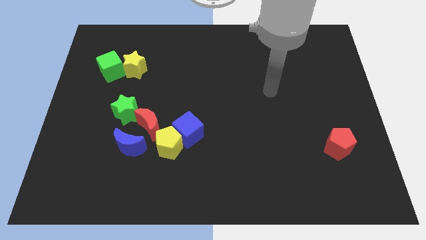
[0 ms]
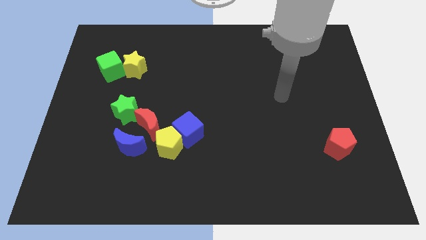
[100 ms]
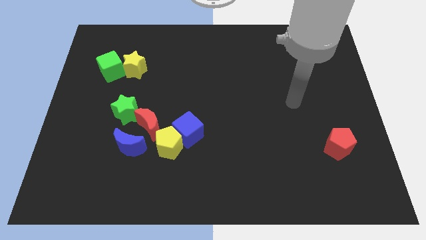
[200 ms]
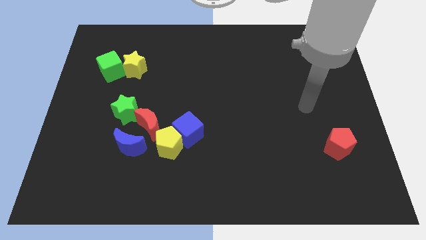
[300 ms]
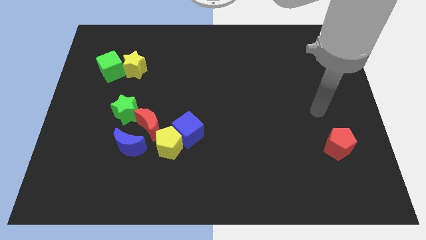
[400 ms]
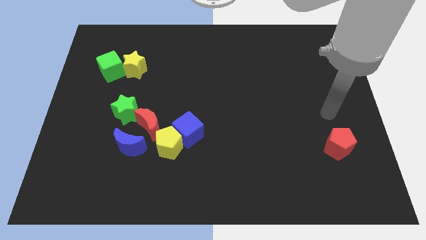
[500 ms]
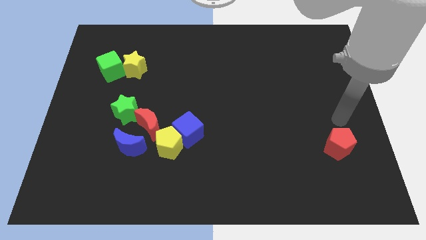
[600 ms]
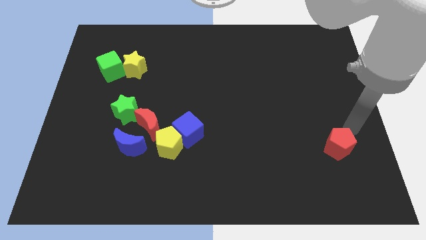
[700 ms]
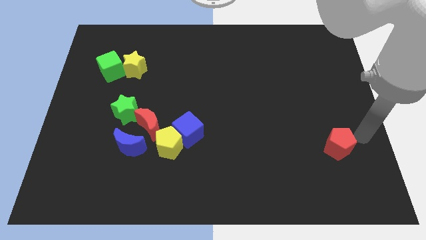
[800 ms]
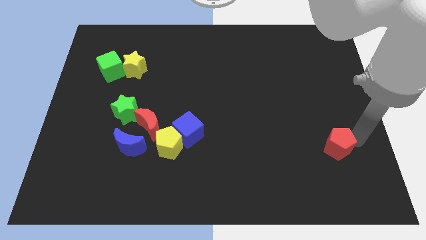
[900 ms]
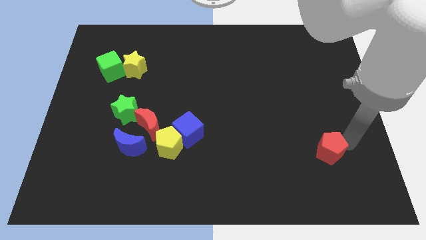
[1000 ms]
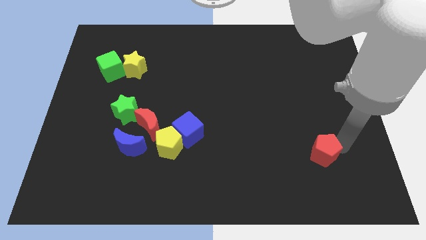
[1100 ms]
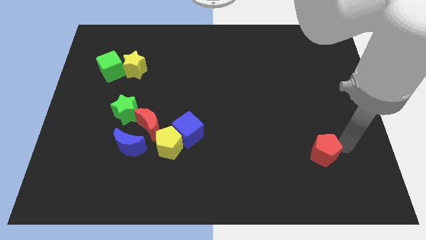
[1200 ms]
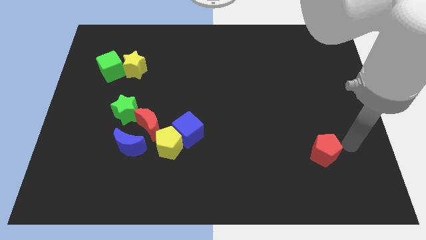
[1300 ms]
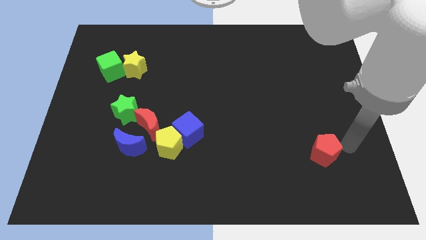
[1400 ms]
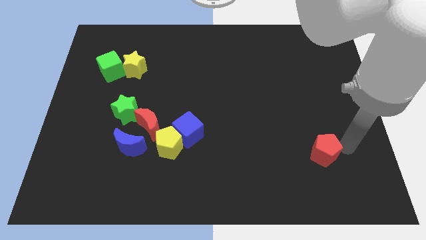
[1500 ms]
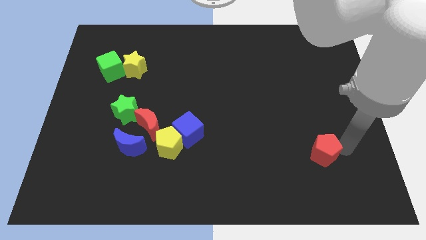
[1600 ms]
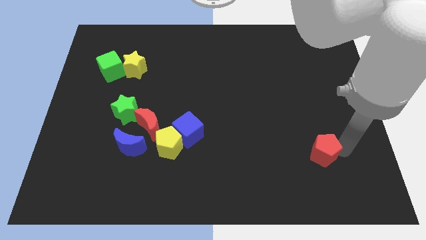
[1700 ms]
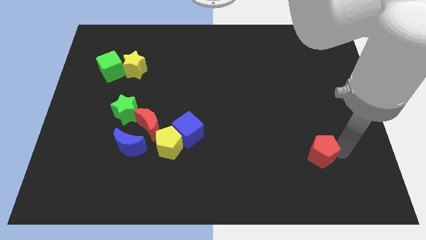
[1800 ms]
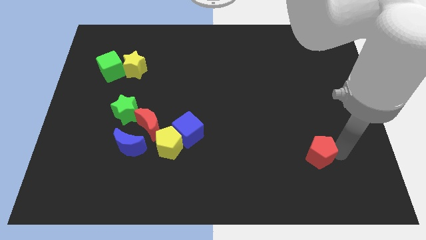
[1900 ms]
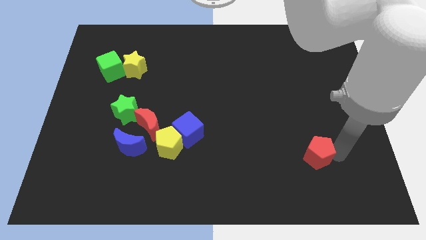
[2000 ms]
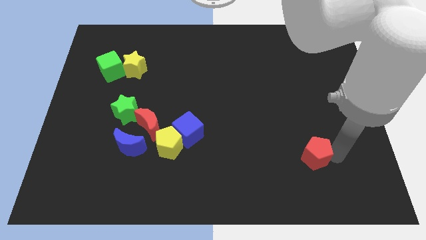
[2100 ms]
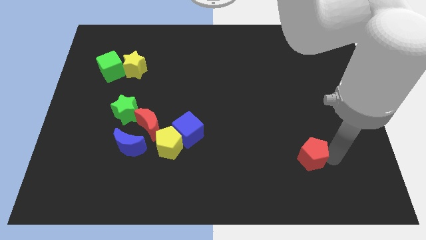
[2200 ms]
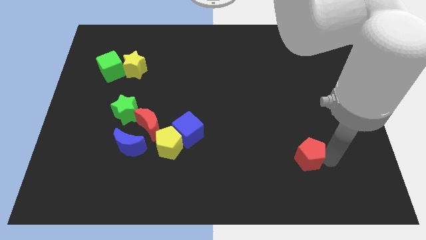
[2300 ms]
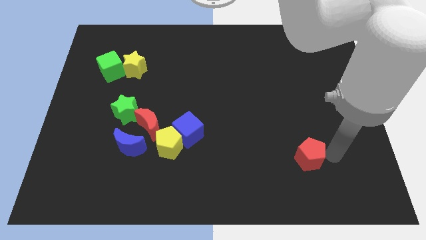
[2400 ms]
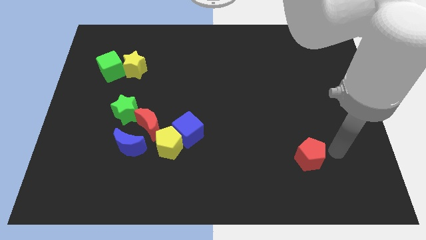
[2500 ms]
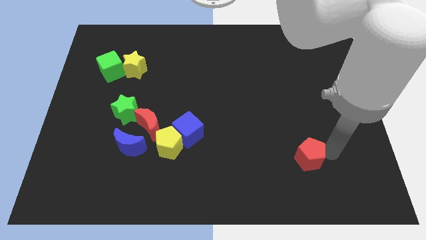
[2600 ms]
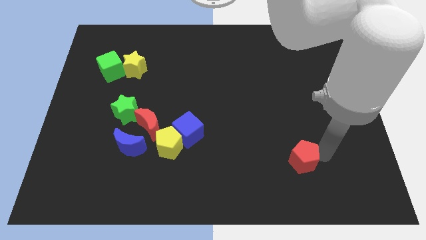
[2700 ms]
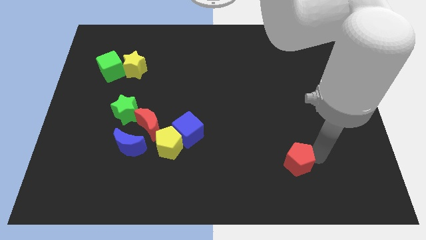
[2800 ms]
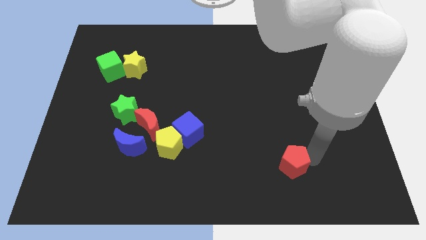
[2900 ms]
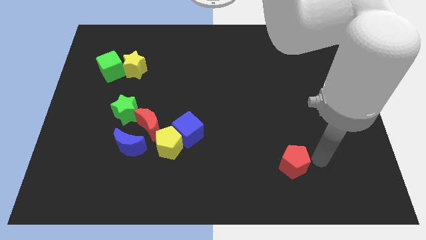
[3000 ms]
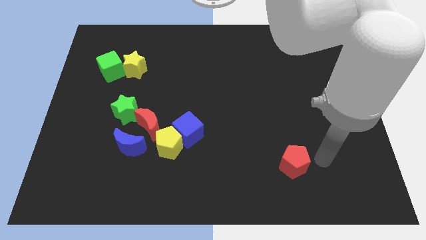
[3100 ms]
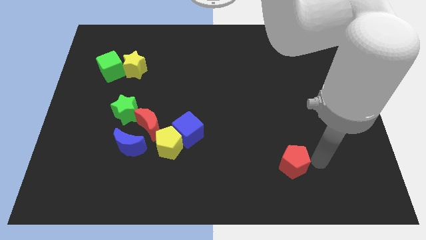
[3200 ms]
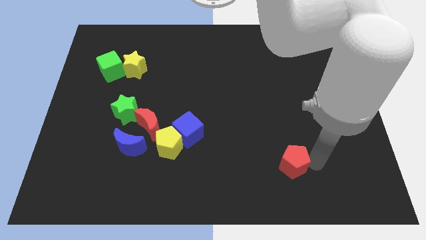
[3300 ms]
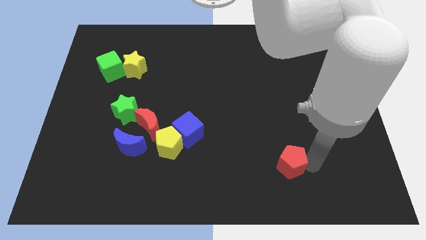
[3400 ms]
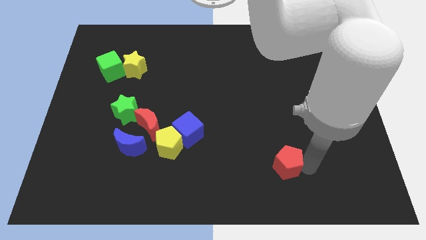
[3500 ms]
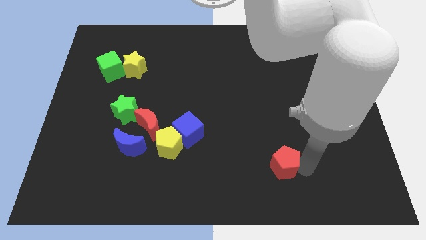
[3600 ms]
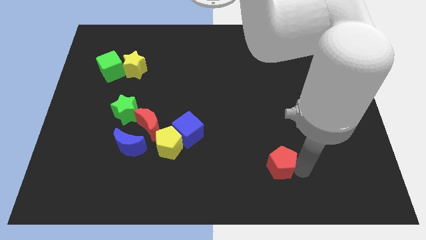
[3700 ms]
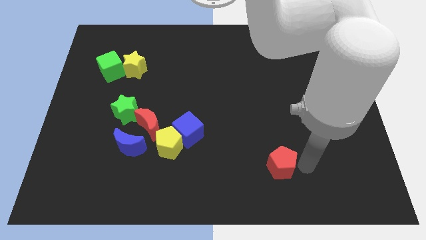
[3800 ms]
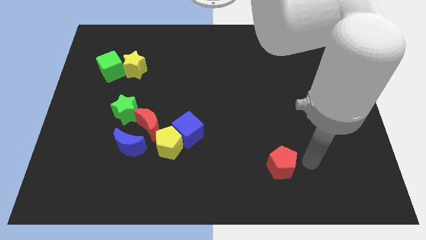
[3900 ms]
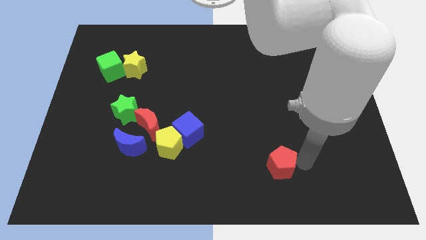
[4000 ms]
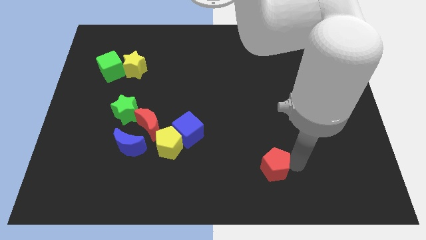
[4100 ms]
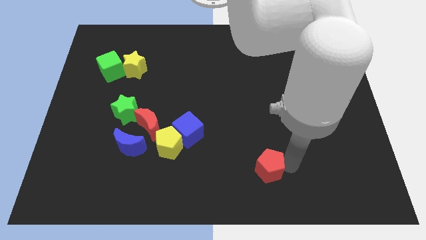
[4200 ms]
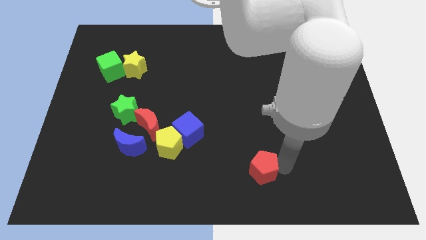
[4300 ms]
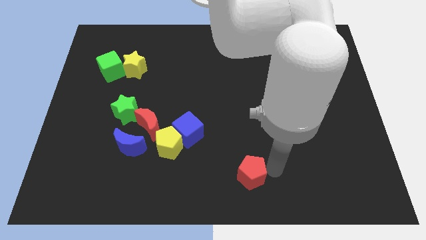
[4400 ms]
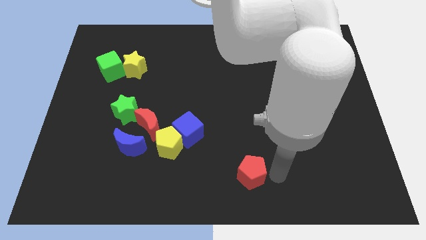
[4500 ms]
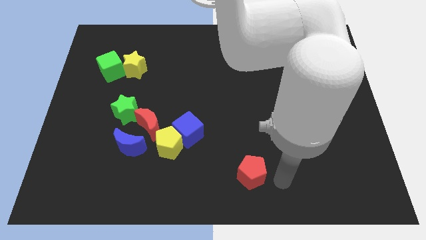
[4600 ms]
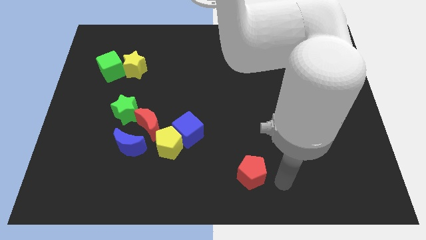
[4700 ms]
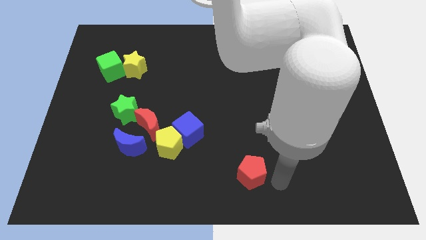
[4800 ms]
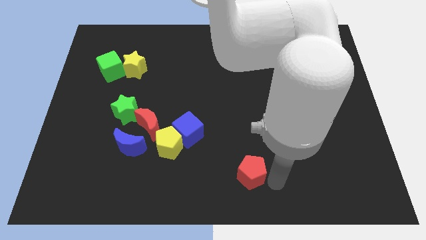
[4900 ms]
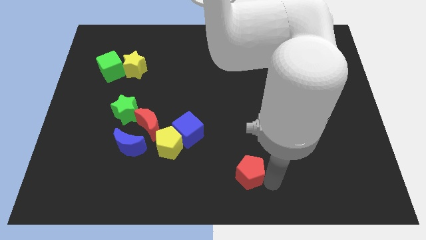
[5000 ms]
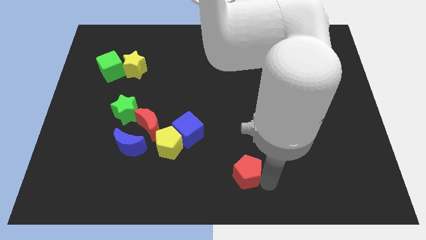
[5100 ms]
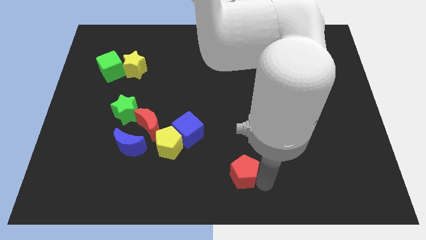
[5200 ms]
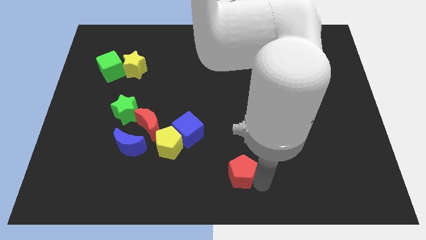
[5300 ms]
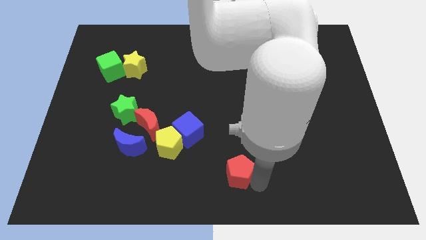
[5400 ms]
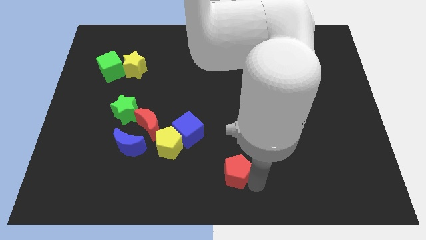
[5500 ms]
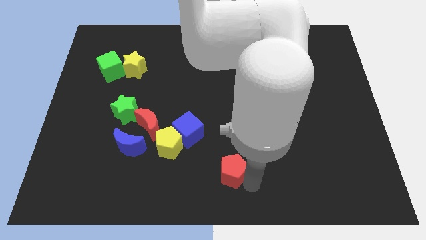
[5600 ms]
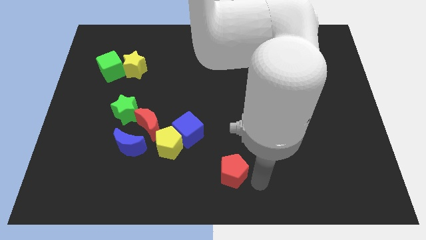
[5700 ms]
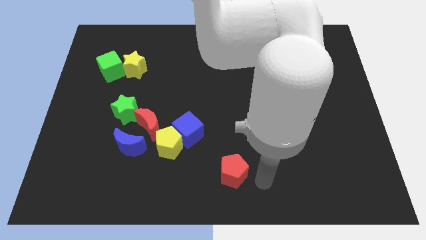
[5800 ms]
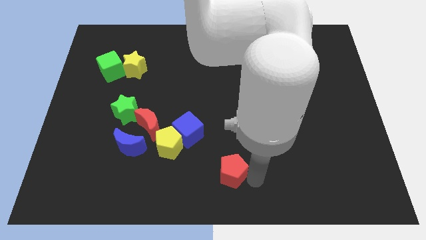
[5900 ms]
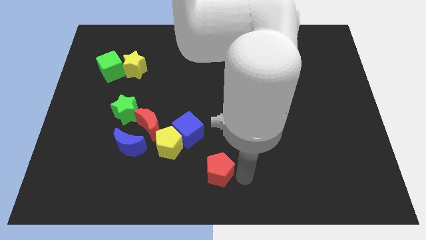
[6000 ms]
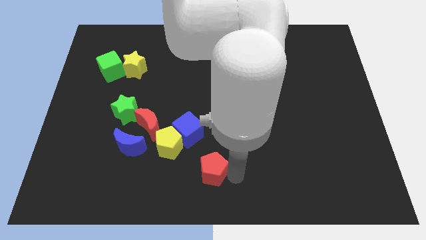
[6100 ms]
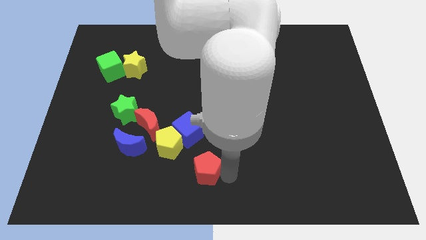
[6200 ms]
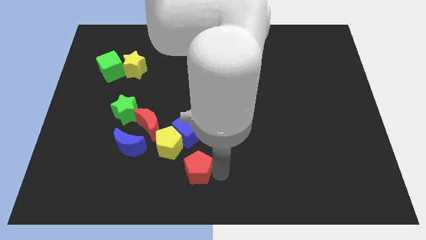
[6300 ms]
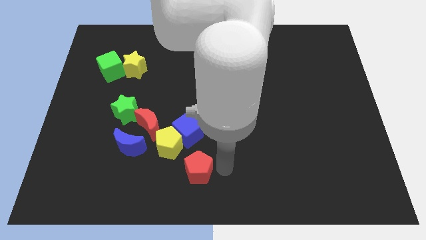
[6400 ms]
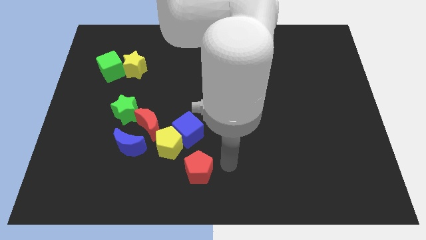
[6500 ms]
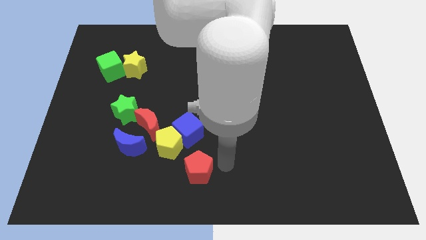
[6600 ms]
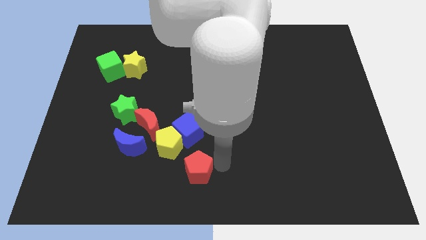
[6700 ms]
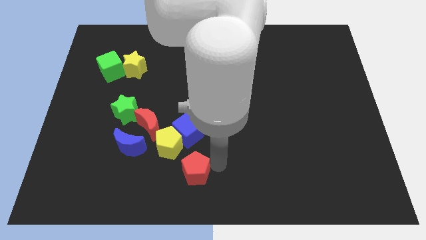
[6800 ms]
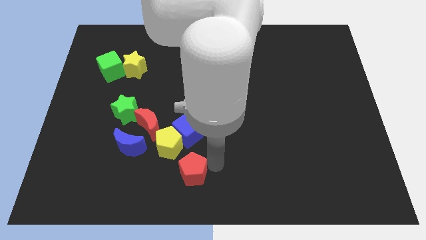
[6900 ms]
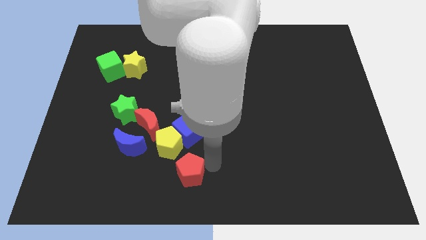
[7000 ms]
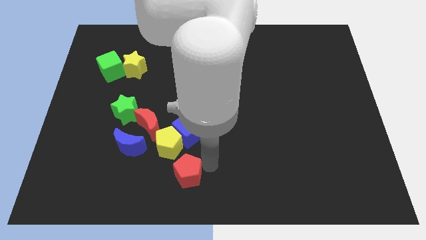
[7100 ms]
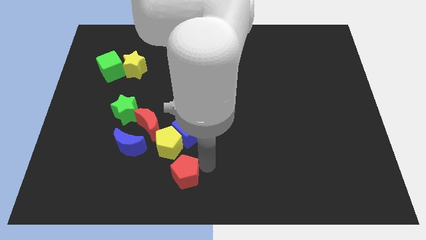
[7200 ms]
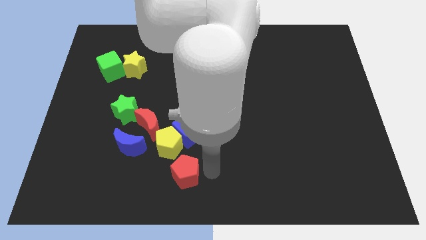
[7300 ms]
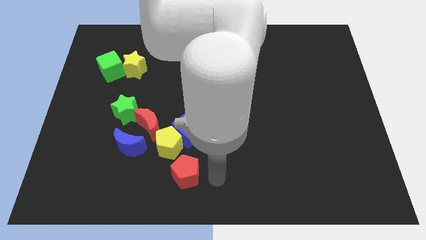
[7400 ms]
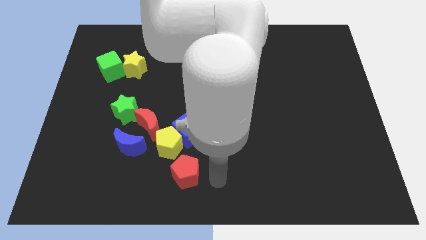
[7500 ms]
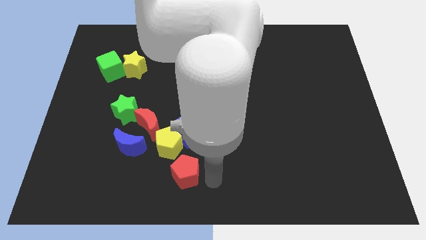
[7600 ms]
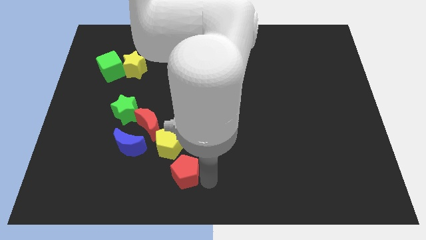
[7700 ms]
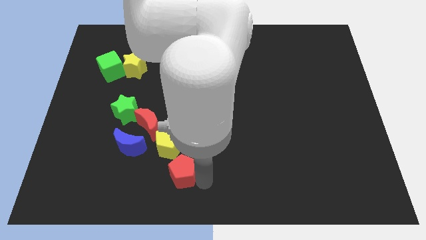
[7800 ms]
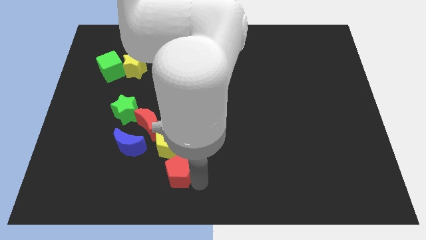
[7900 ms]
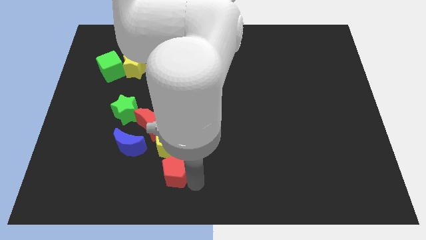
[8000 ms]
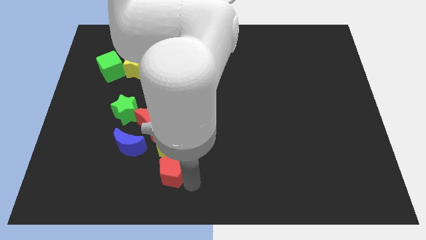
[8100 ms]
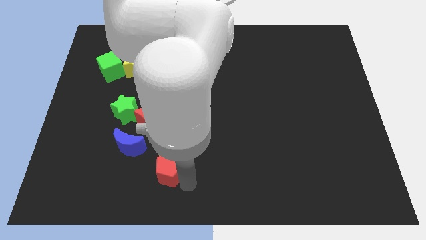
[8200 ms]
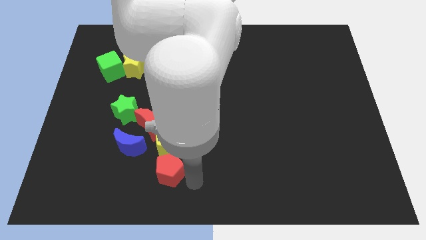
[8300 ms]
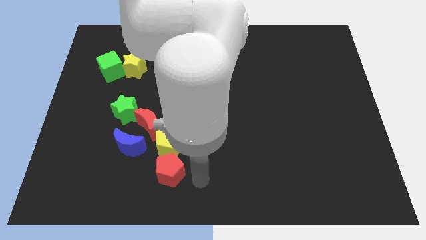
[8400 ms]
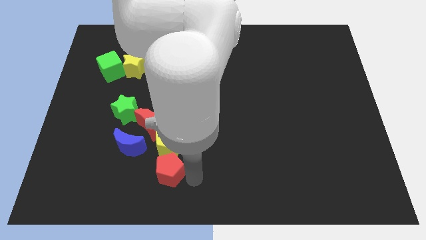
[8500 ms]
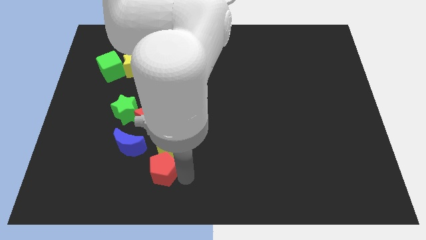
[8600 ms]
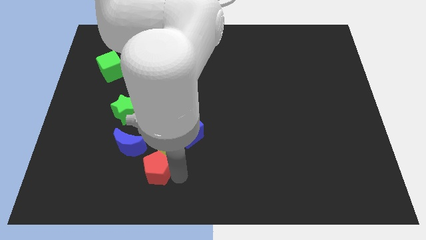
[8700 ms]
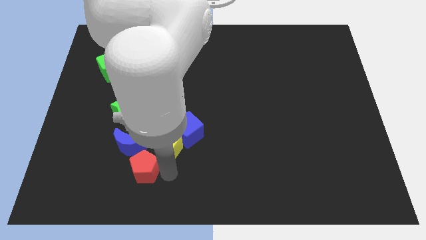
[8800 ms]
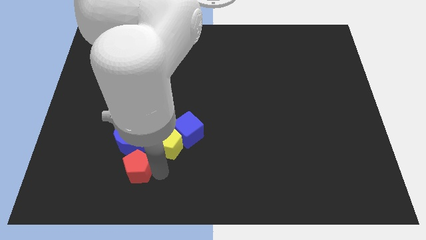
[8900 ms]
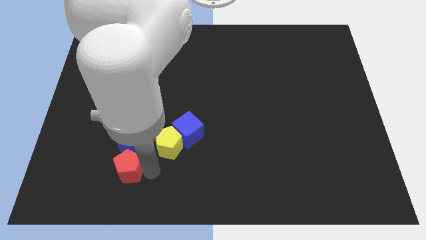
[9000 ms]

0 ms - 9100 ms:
move the red pentagon to the bottom of the green star
